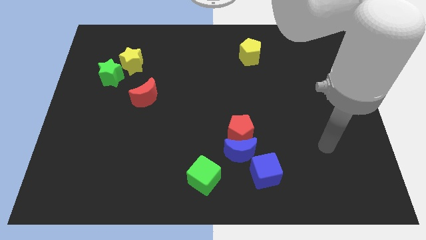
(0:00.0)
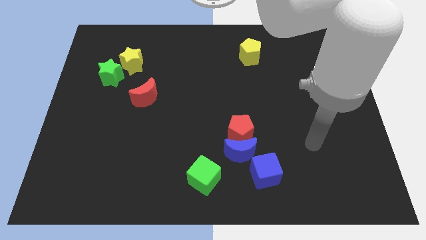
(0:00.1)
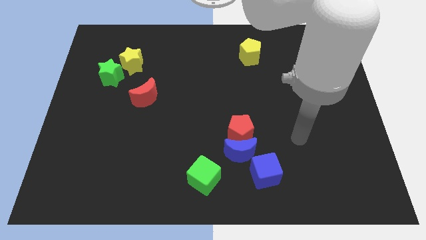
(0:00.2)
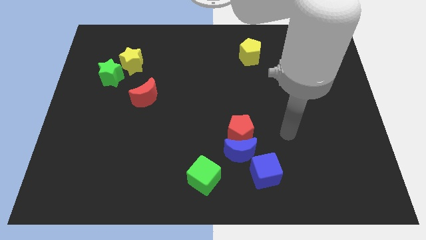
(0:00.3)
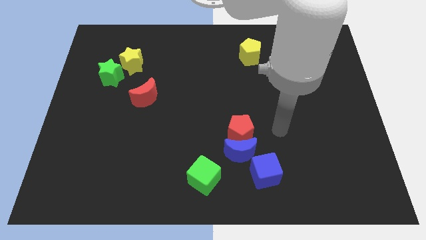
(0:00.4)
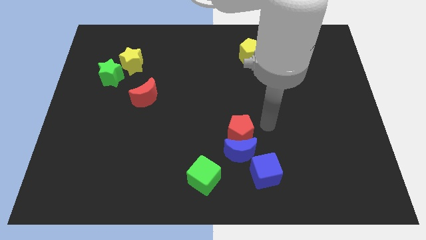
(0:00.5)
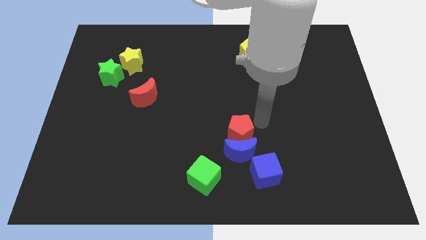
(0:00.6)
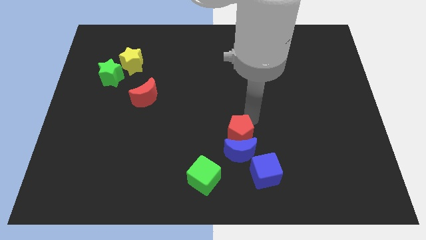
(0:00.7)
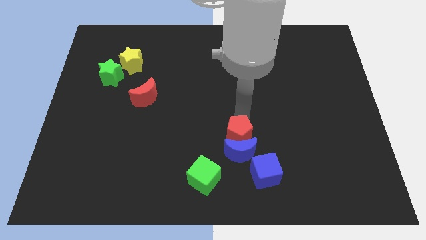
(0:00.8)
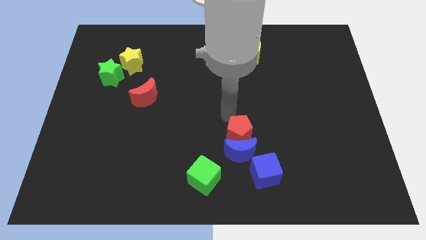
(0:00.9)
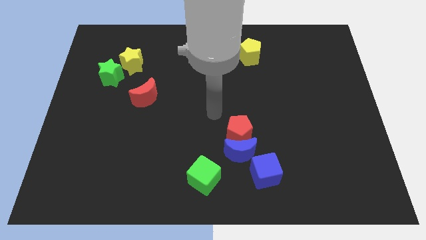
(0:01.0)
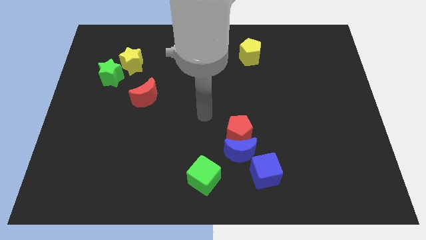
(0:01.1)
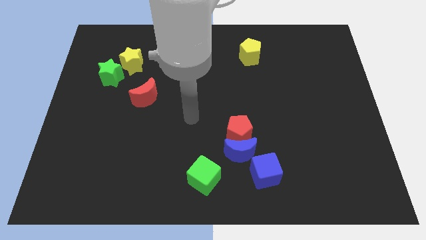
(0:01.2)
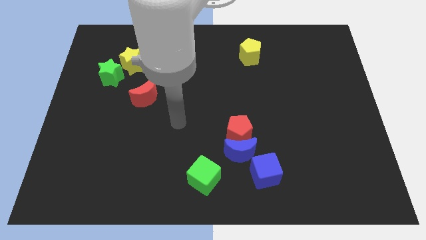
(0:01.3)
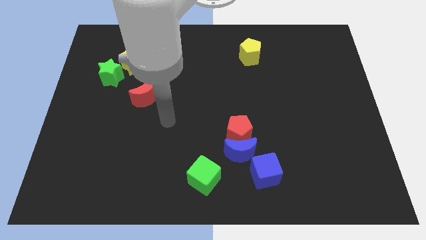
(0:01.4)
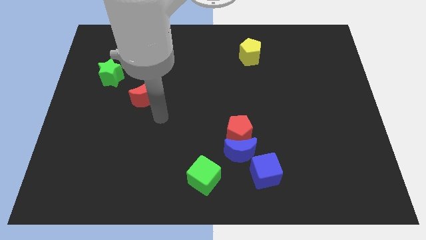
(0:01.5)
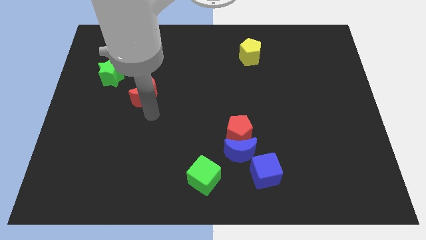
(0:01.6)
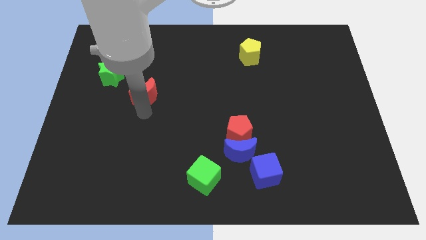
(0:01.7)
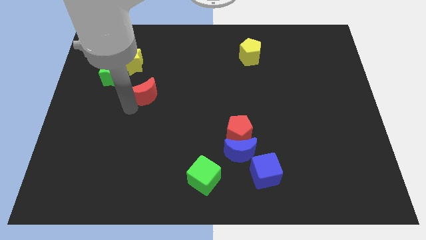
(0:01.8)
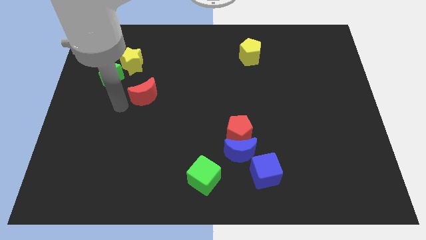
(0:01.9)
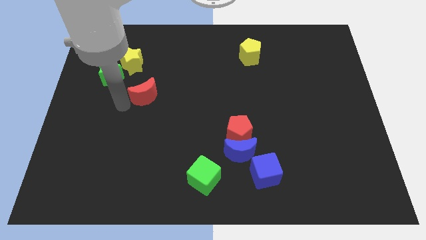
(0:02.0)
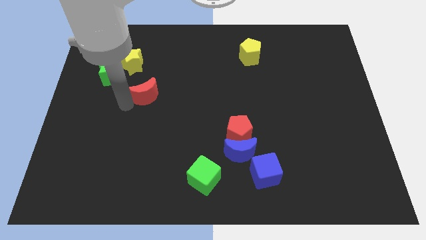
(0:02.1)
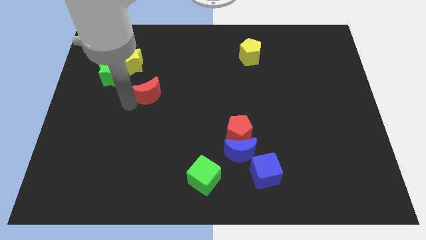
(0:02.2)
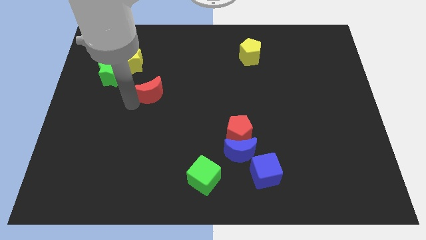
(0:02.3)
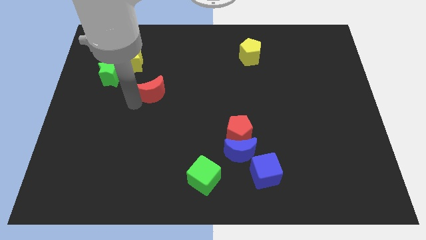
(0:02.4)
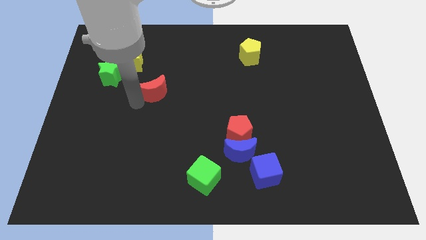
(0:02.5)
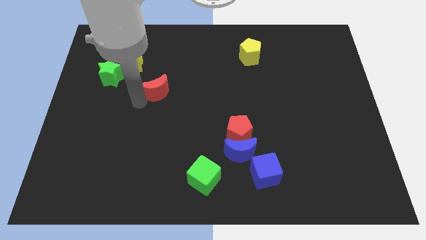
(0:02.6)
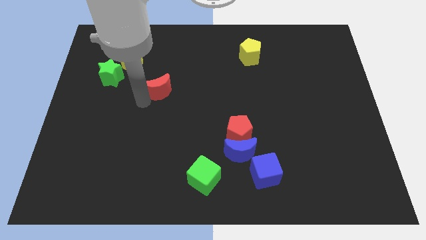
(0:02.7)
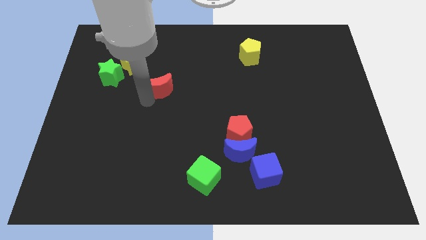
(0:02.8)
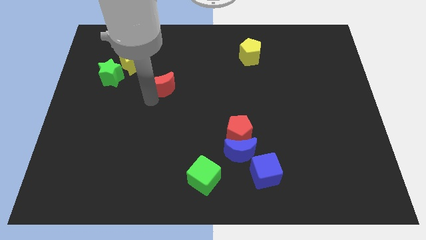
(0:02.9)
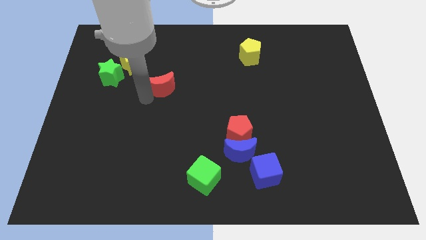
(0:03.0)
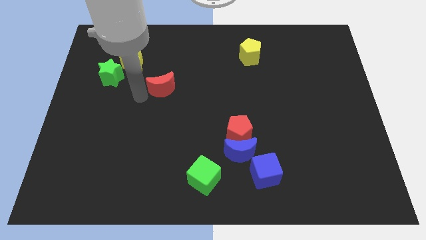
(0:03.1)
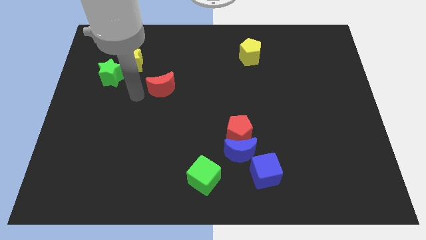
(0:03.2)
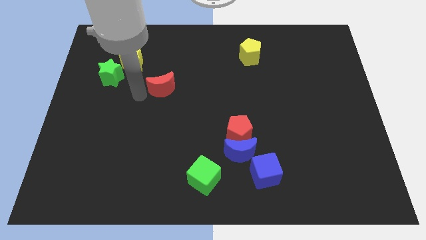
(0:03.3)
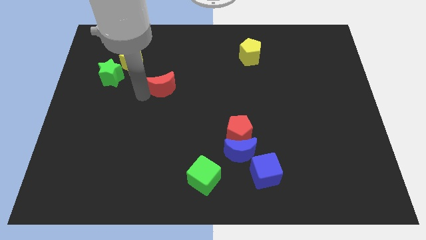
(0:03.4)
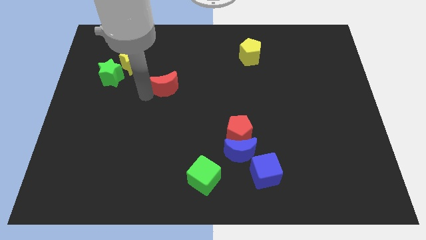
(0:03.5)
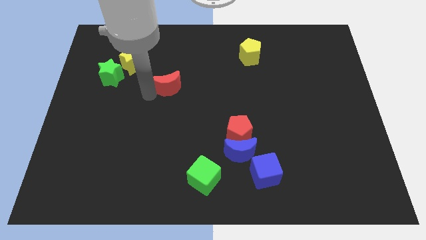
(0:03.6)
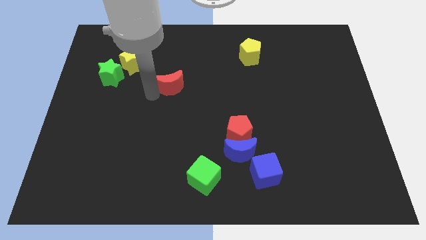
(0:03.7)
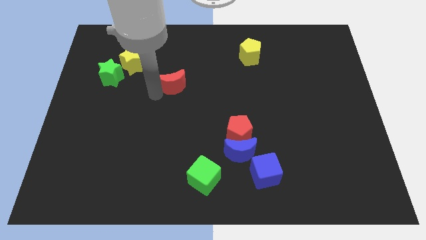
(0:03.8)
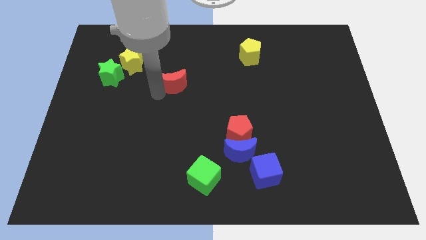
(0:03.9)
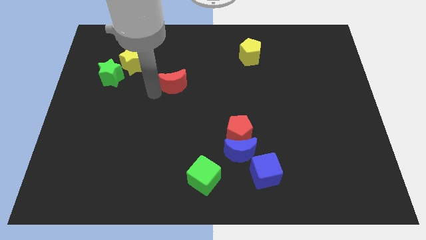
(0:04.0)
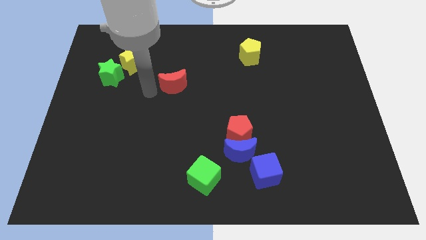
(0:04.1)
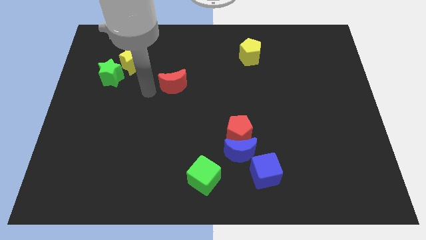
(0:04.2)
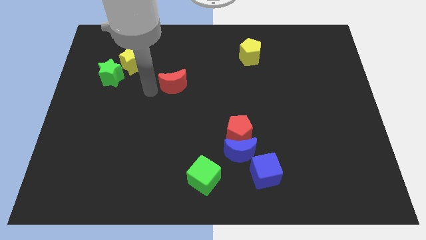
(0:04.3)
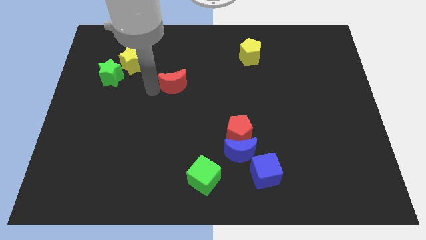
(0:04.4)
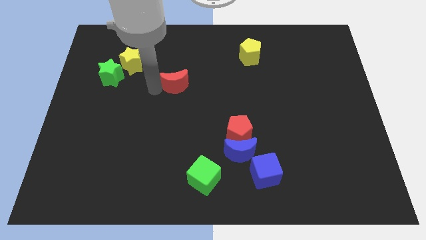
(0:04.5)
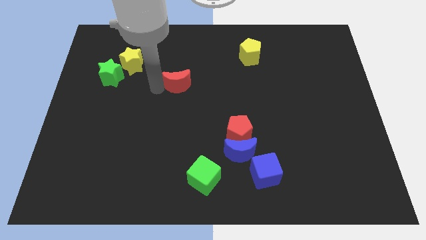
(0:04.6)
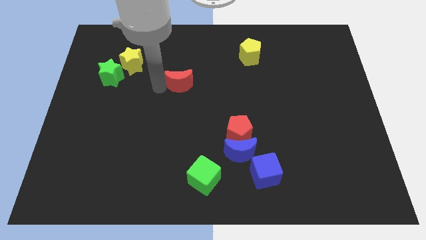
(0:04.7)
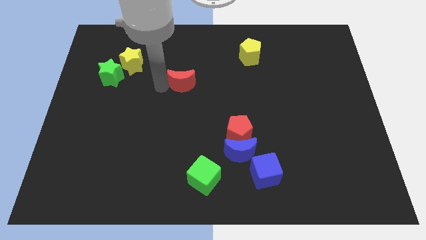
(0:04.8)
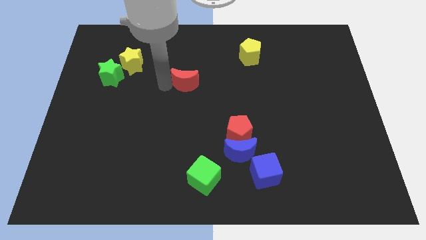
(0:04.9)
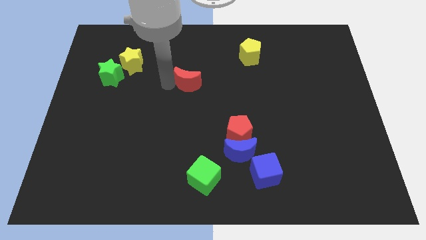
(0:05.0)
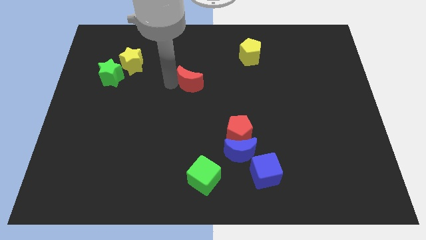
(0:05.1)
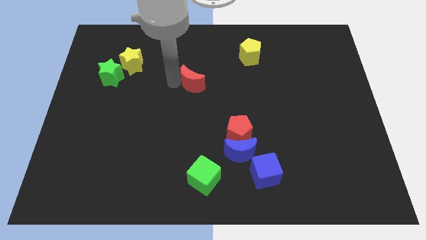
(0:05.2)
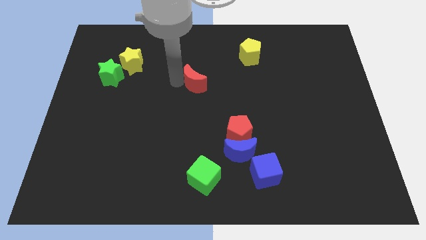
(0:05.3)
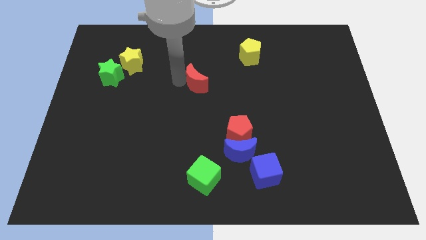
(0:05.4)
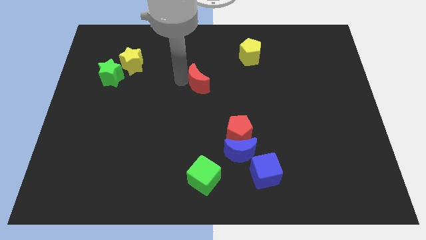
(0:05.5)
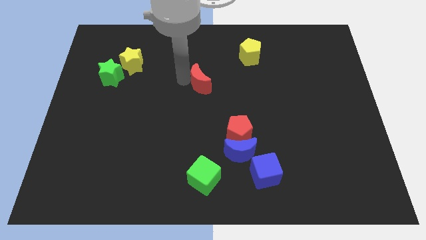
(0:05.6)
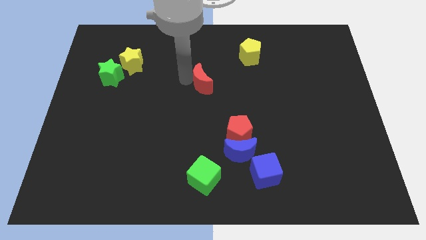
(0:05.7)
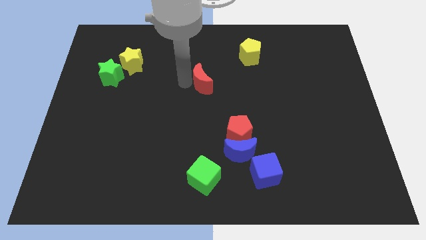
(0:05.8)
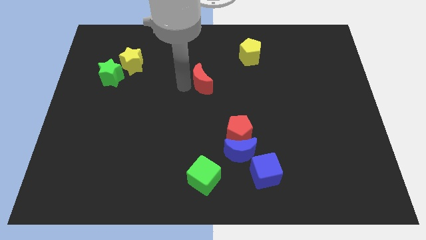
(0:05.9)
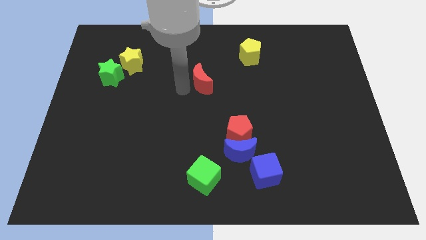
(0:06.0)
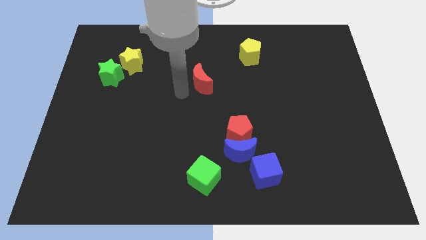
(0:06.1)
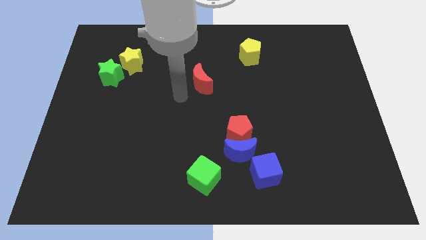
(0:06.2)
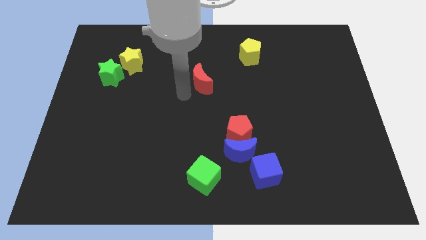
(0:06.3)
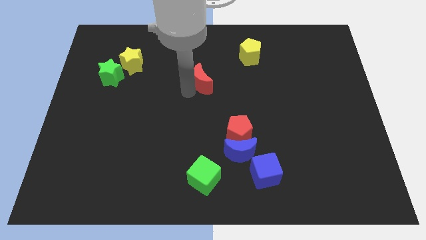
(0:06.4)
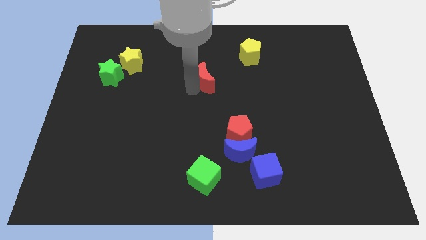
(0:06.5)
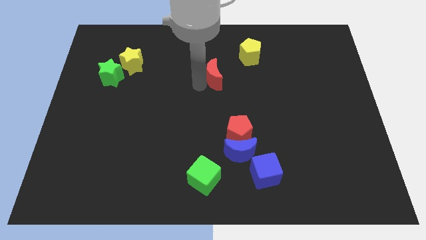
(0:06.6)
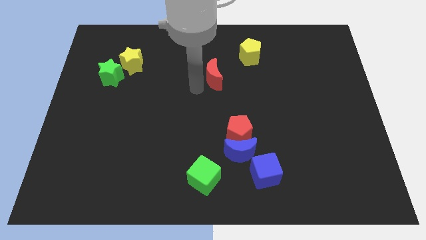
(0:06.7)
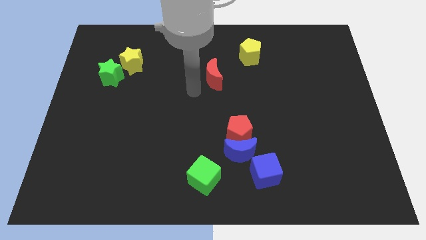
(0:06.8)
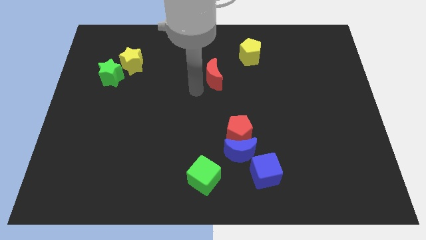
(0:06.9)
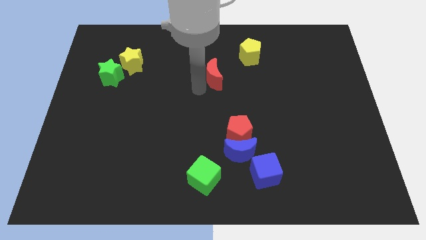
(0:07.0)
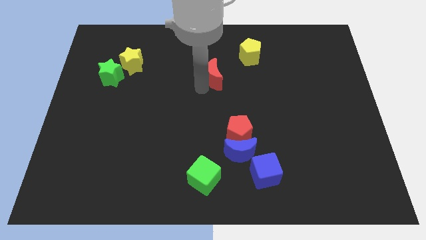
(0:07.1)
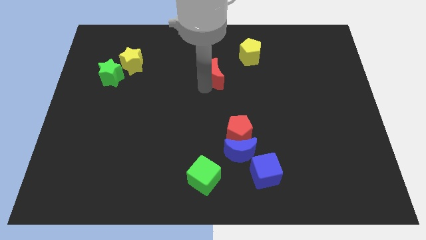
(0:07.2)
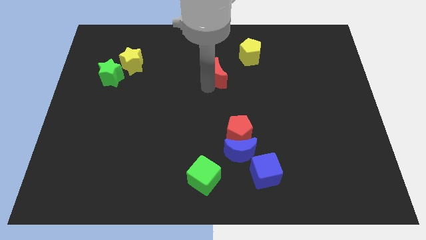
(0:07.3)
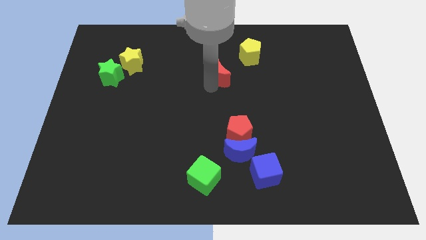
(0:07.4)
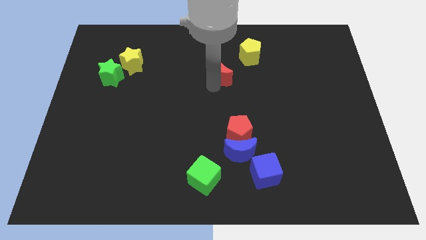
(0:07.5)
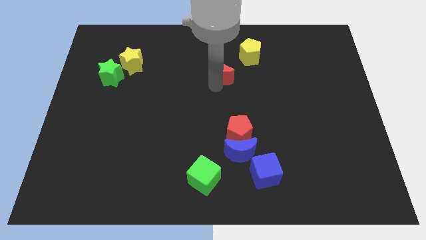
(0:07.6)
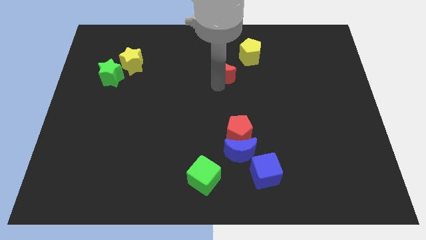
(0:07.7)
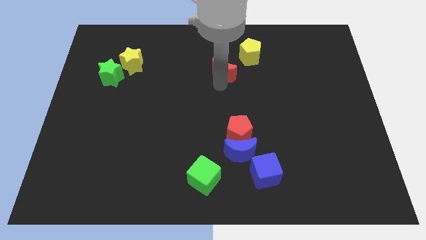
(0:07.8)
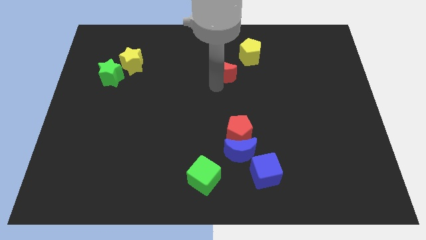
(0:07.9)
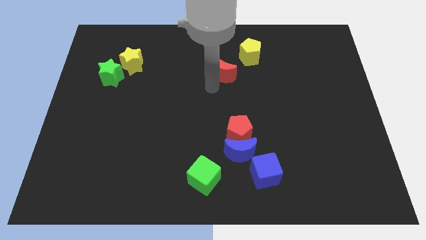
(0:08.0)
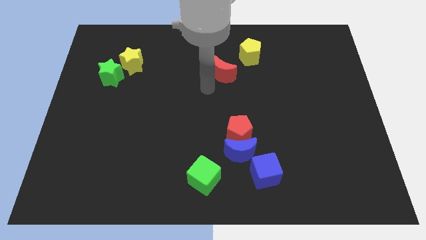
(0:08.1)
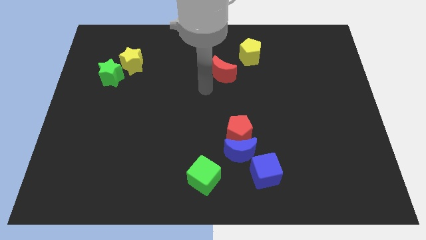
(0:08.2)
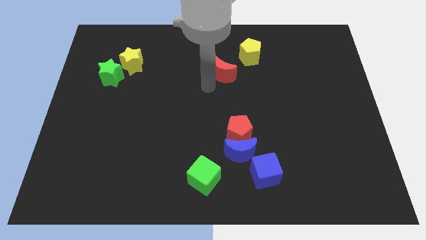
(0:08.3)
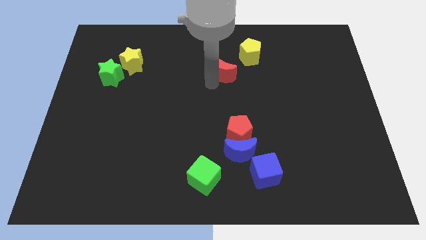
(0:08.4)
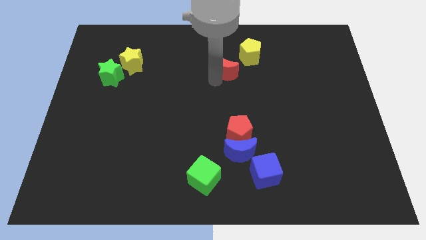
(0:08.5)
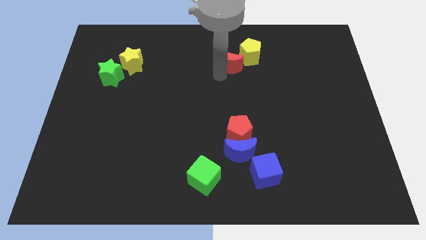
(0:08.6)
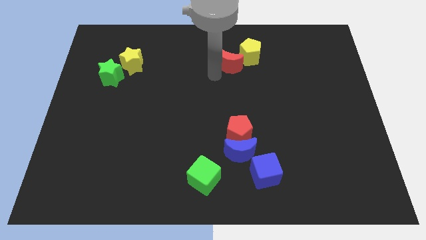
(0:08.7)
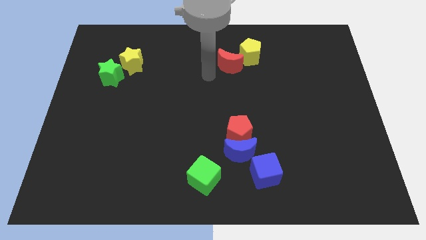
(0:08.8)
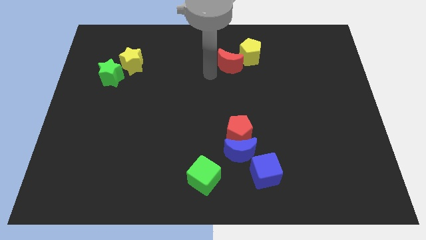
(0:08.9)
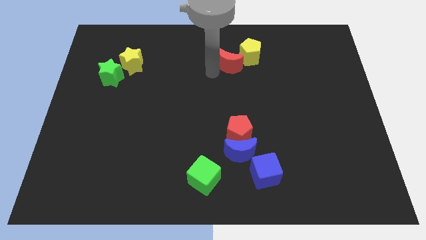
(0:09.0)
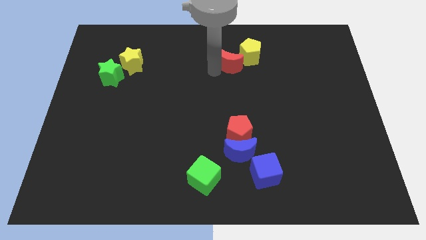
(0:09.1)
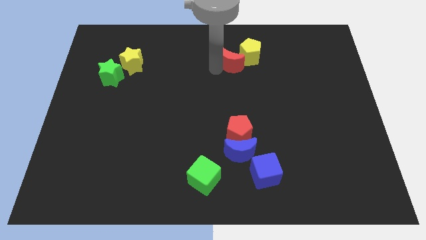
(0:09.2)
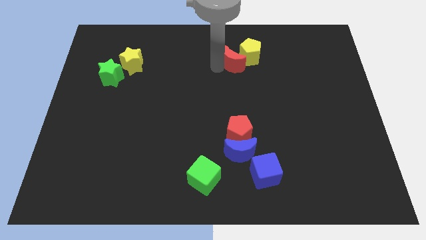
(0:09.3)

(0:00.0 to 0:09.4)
slide the red moon next to the yellow pentagon
